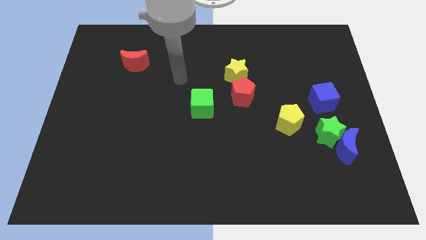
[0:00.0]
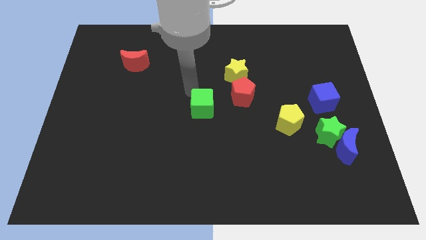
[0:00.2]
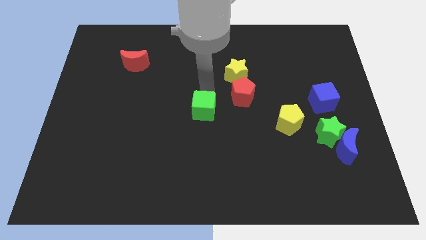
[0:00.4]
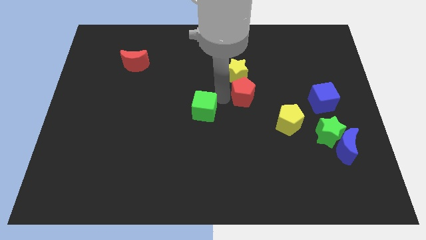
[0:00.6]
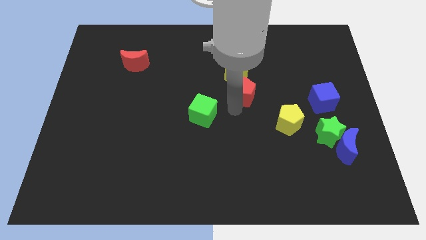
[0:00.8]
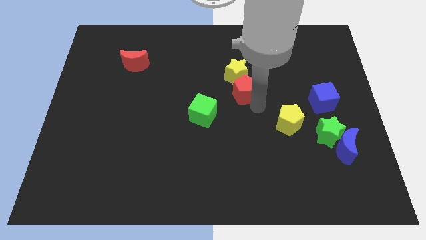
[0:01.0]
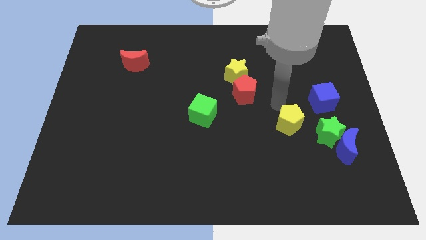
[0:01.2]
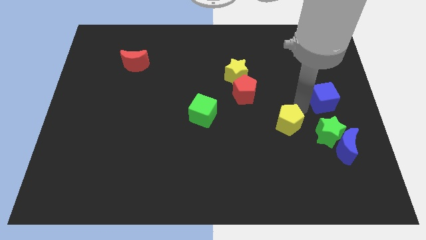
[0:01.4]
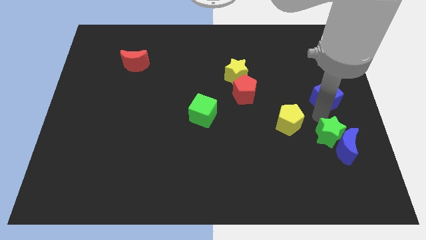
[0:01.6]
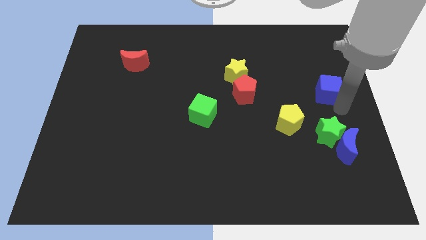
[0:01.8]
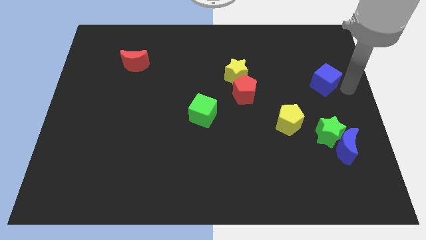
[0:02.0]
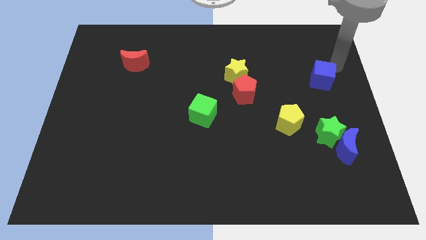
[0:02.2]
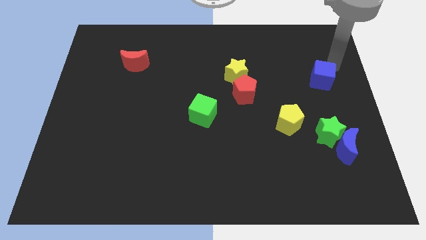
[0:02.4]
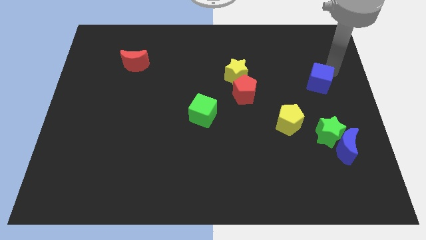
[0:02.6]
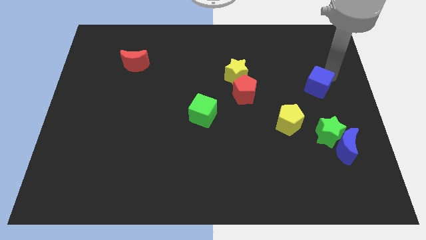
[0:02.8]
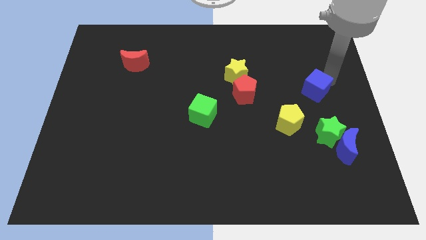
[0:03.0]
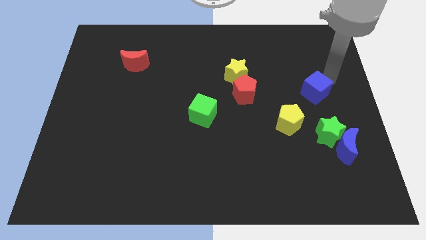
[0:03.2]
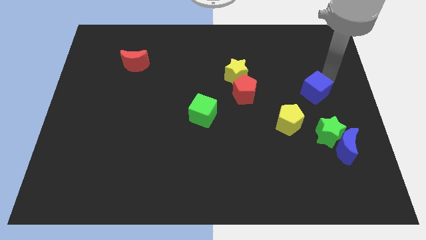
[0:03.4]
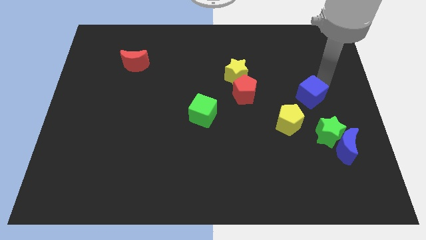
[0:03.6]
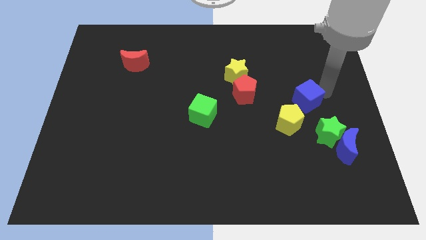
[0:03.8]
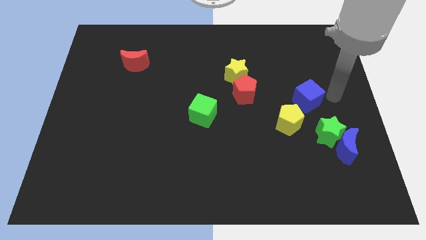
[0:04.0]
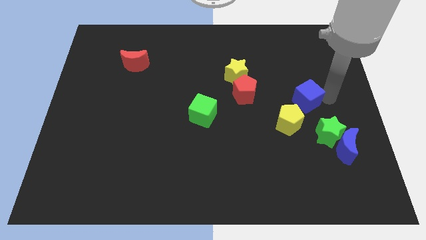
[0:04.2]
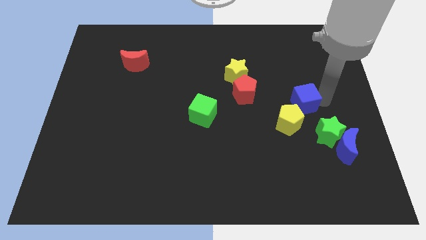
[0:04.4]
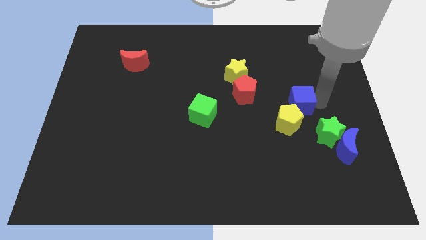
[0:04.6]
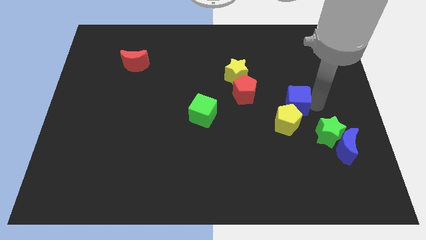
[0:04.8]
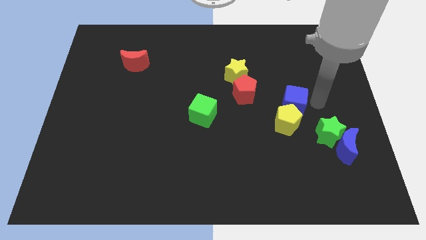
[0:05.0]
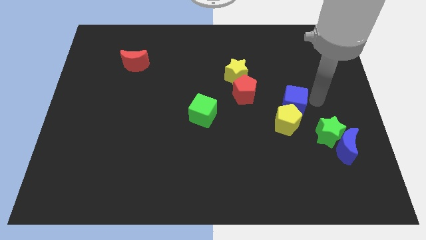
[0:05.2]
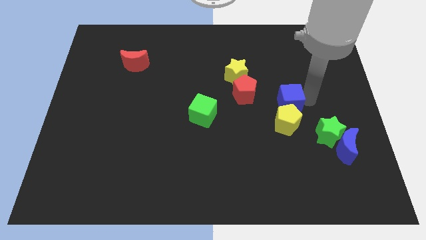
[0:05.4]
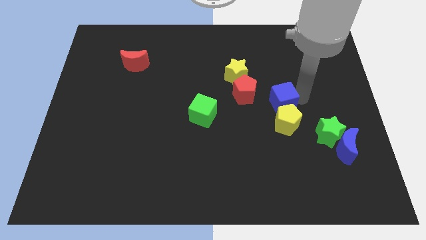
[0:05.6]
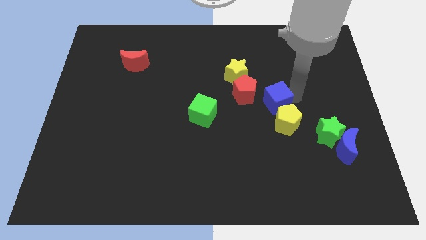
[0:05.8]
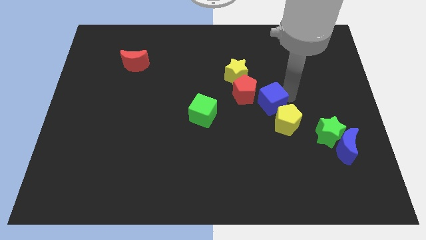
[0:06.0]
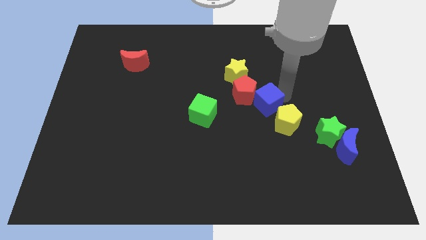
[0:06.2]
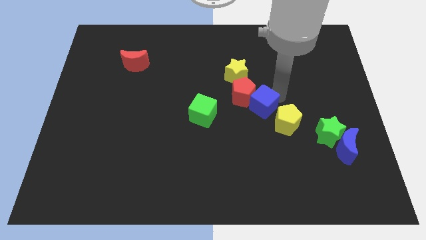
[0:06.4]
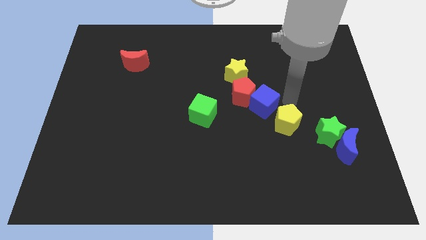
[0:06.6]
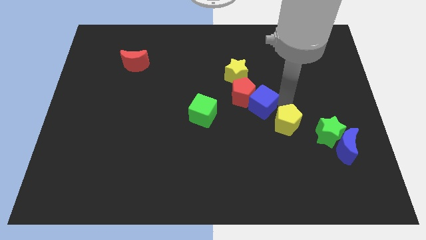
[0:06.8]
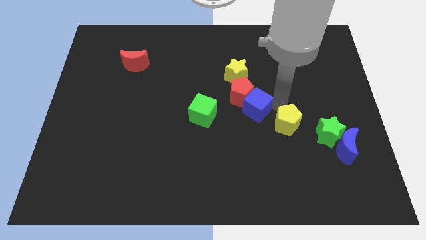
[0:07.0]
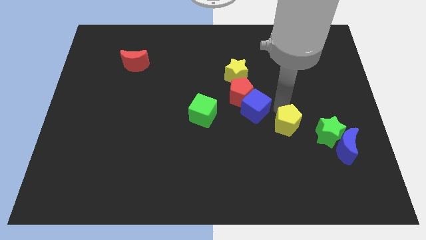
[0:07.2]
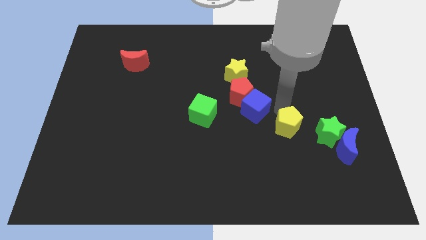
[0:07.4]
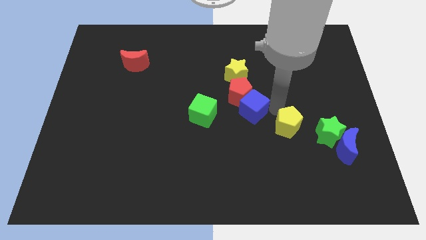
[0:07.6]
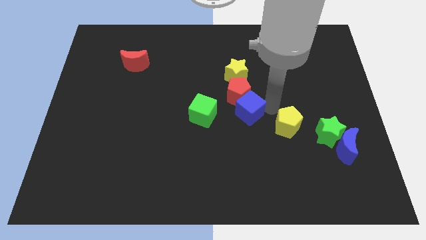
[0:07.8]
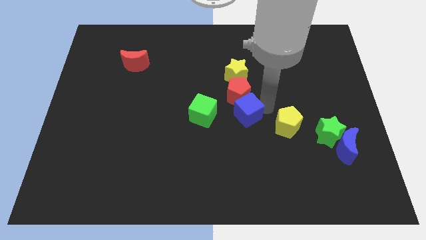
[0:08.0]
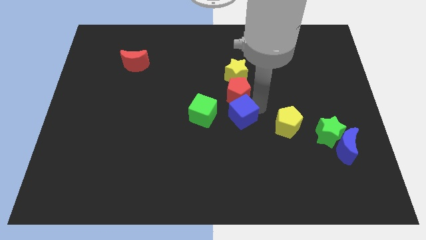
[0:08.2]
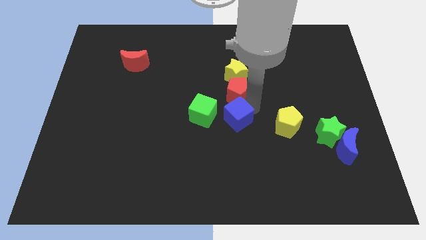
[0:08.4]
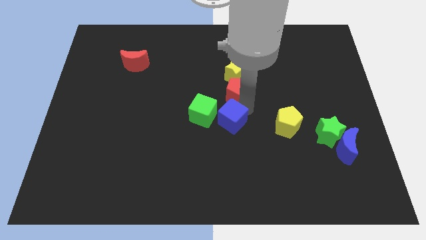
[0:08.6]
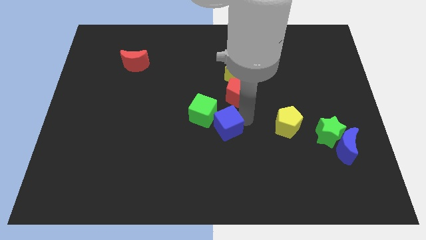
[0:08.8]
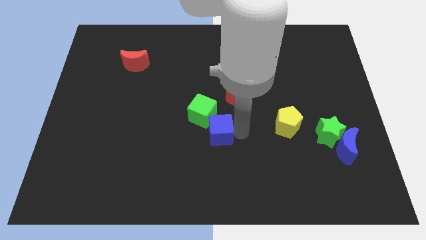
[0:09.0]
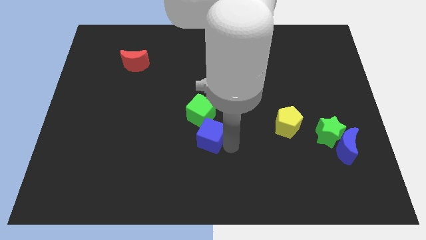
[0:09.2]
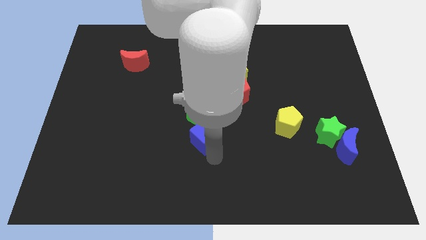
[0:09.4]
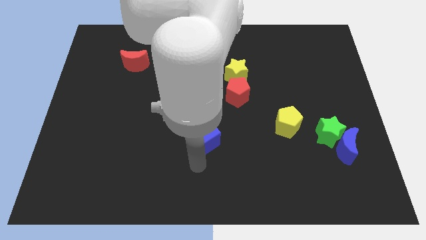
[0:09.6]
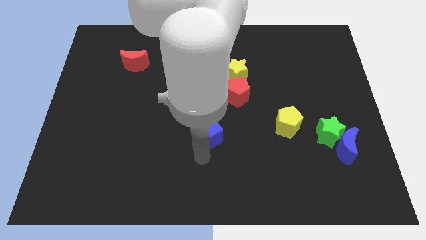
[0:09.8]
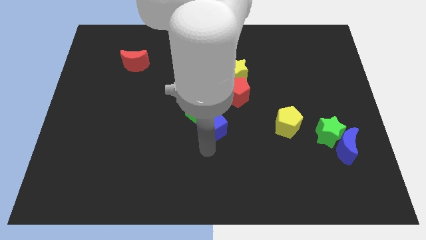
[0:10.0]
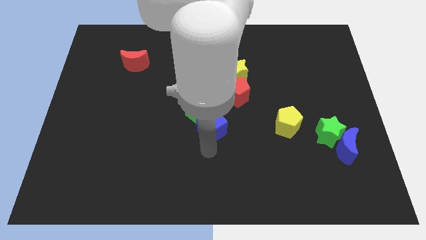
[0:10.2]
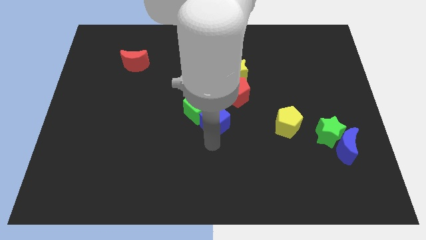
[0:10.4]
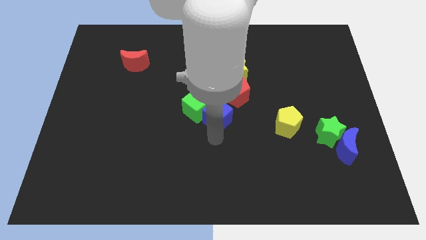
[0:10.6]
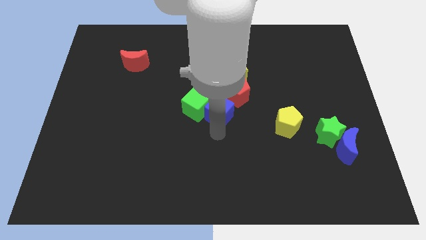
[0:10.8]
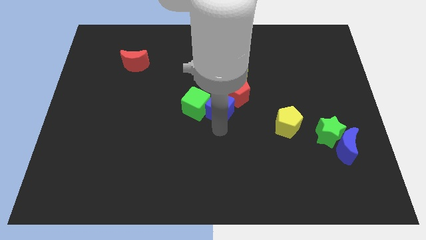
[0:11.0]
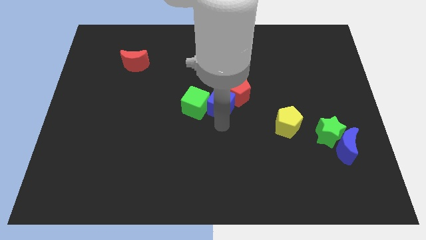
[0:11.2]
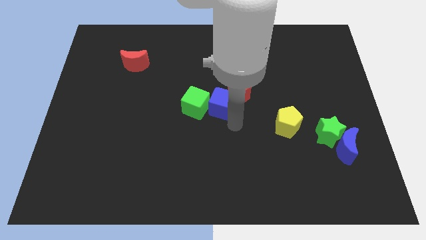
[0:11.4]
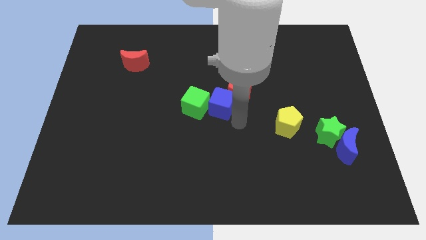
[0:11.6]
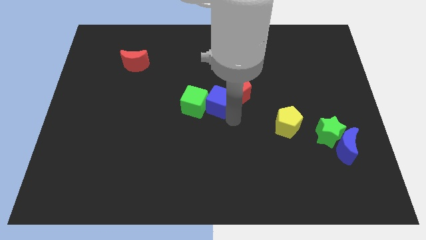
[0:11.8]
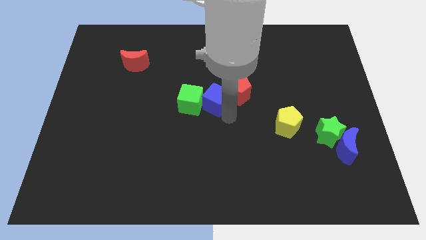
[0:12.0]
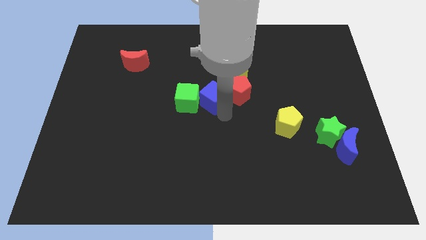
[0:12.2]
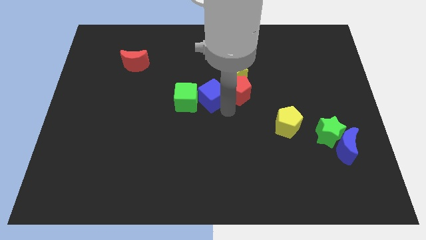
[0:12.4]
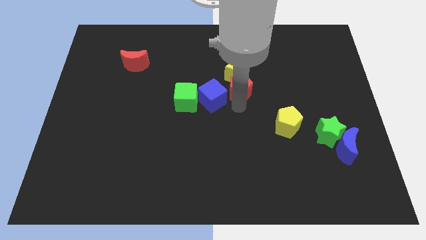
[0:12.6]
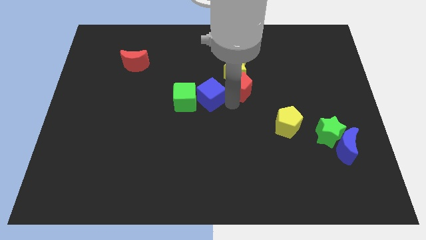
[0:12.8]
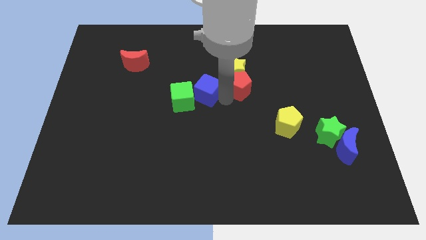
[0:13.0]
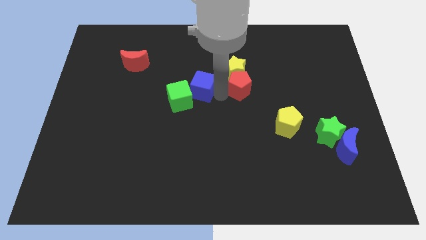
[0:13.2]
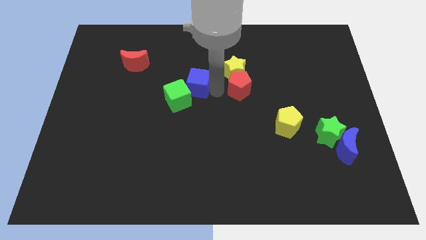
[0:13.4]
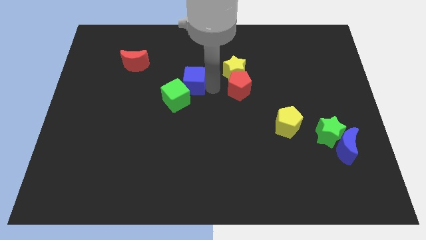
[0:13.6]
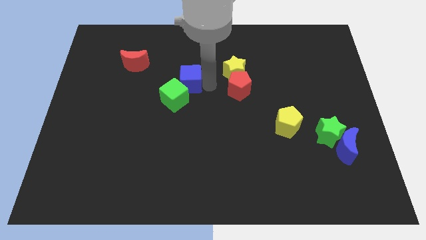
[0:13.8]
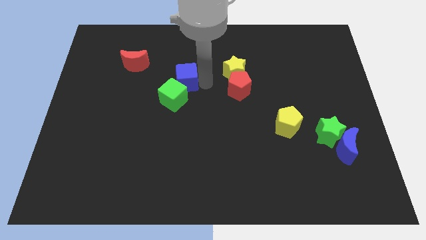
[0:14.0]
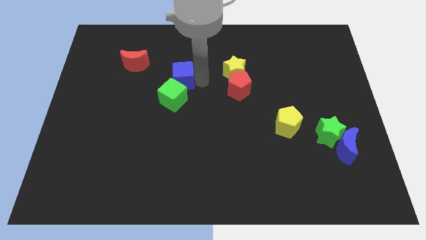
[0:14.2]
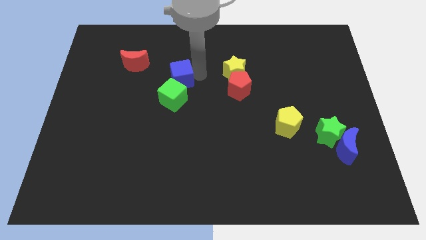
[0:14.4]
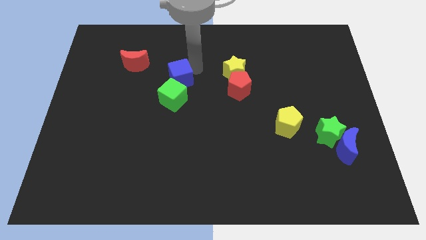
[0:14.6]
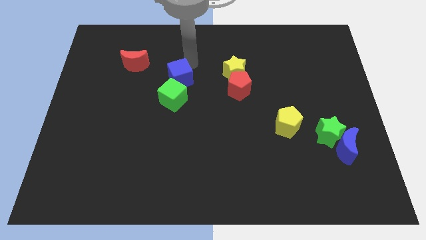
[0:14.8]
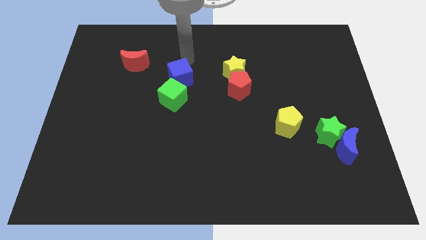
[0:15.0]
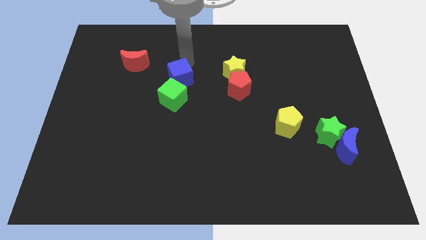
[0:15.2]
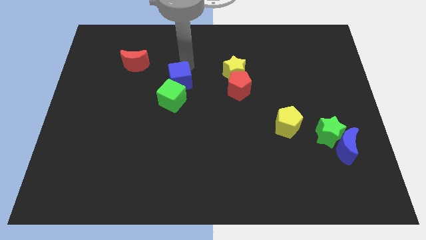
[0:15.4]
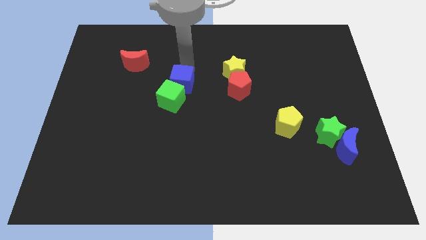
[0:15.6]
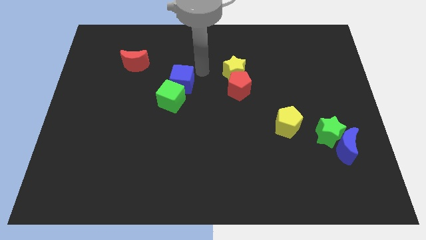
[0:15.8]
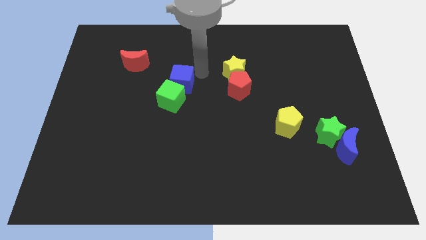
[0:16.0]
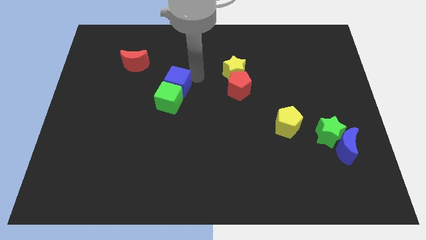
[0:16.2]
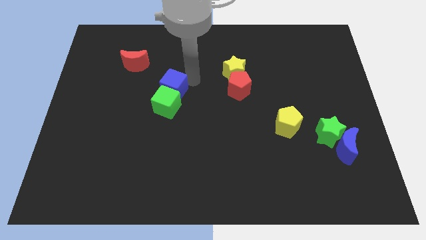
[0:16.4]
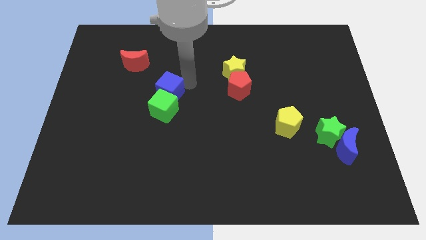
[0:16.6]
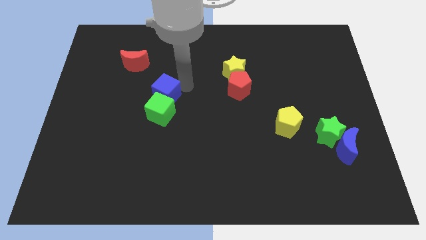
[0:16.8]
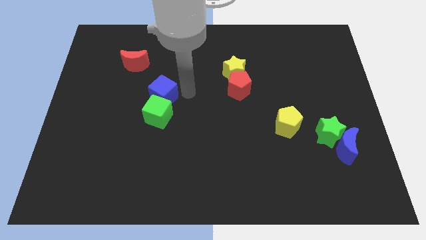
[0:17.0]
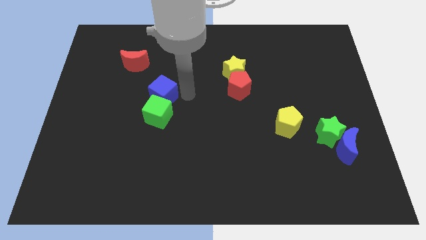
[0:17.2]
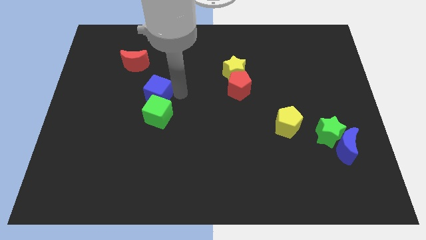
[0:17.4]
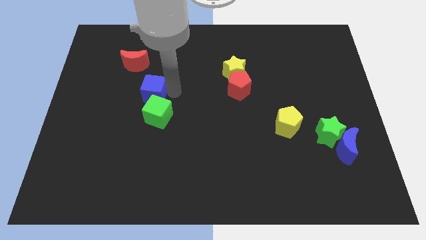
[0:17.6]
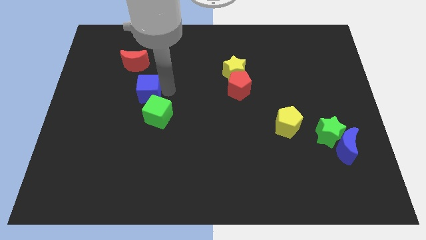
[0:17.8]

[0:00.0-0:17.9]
slide the blue cube to the bottom of the red moon
